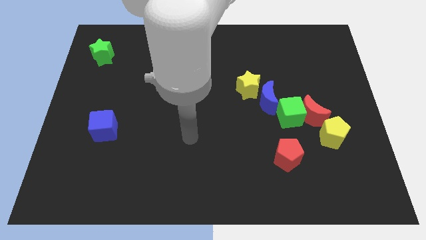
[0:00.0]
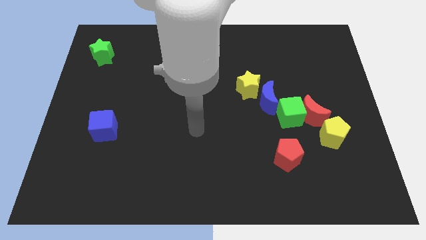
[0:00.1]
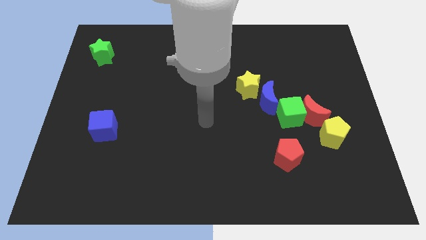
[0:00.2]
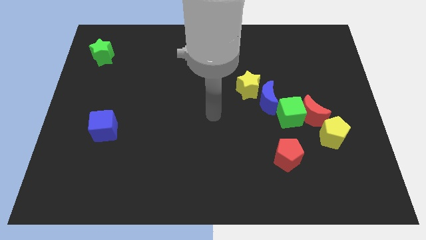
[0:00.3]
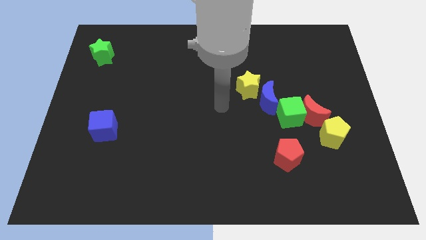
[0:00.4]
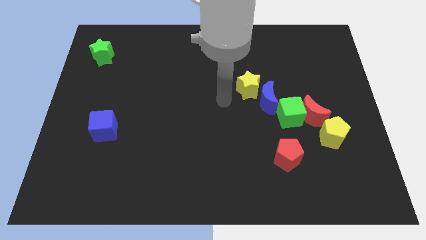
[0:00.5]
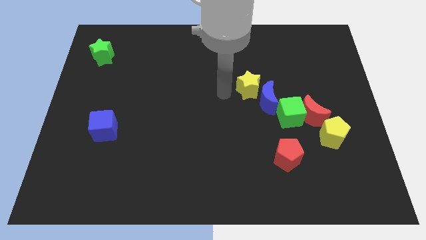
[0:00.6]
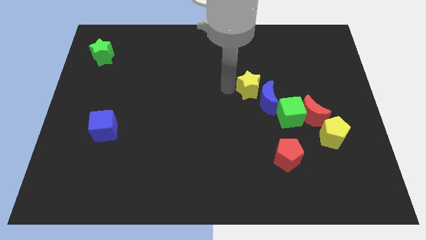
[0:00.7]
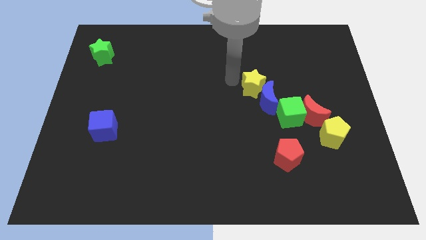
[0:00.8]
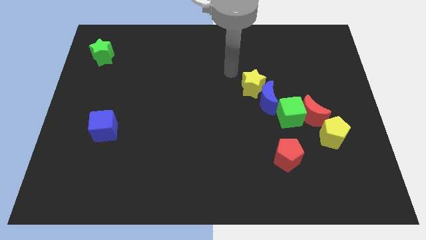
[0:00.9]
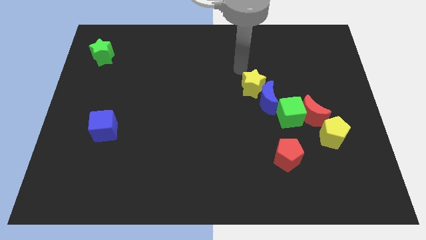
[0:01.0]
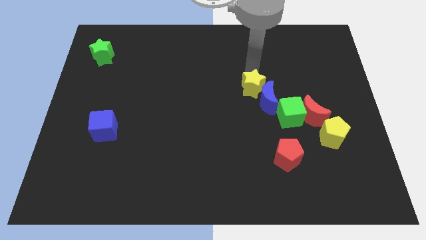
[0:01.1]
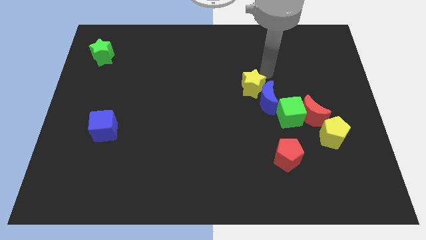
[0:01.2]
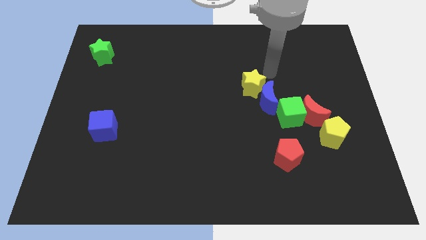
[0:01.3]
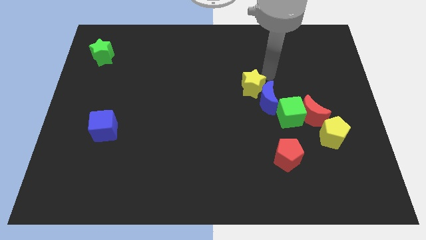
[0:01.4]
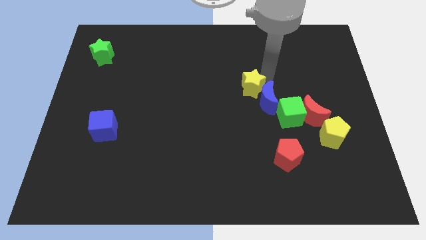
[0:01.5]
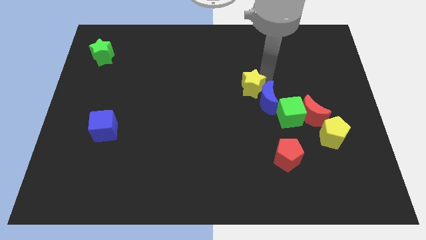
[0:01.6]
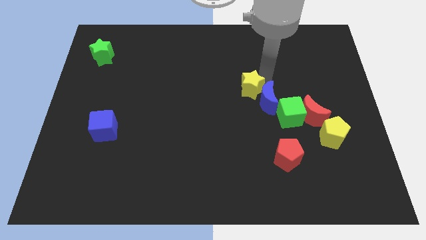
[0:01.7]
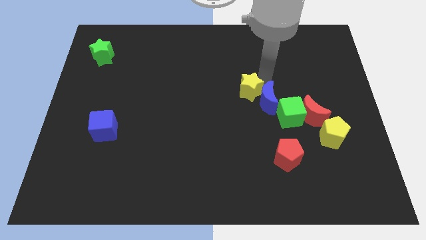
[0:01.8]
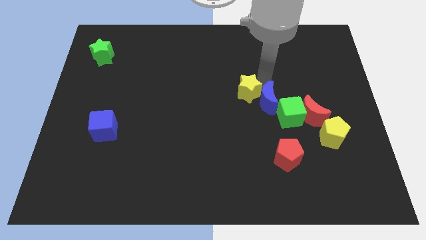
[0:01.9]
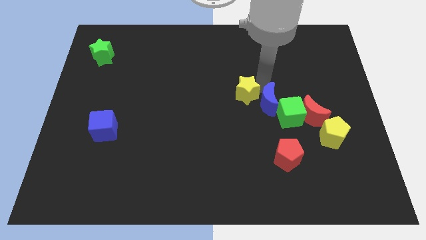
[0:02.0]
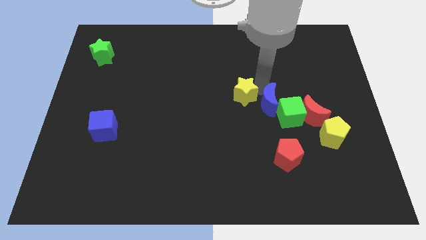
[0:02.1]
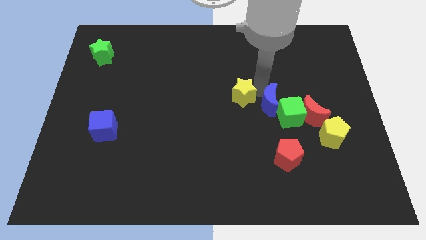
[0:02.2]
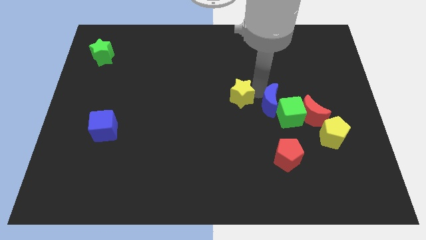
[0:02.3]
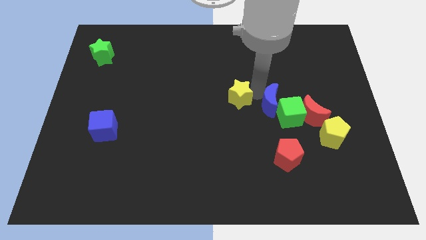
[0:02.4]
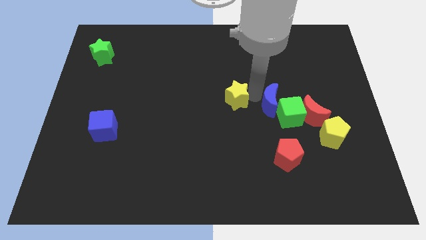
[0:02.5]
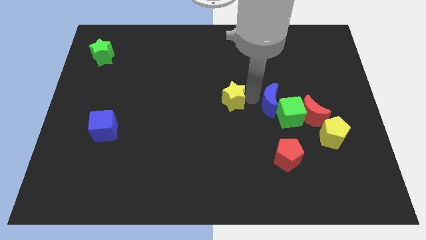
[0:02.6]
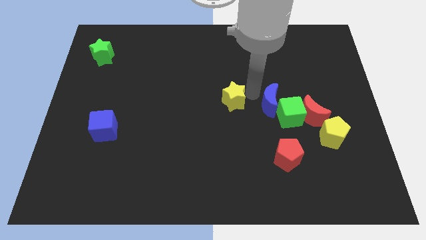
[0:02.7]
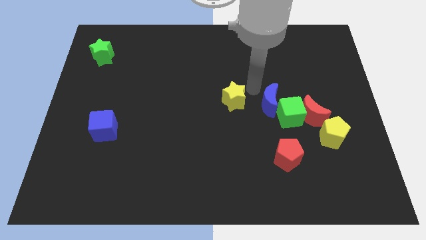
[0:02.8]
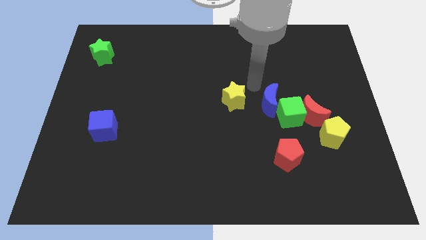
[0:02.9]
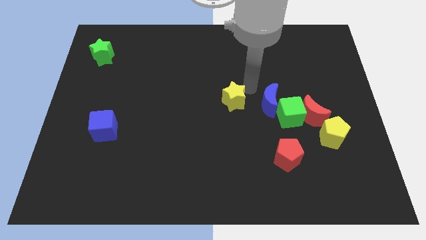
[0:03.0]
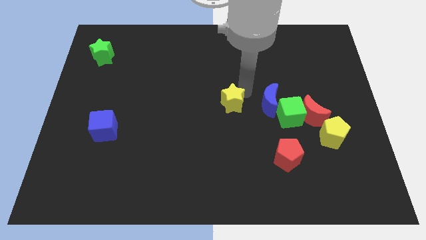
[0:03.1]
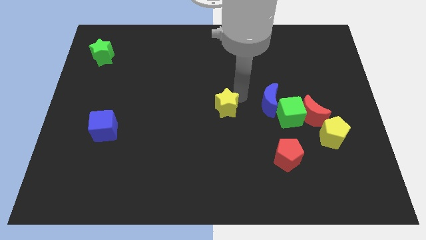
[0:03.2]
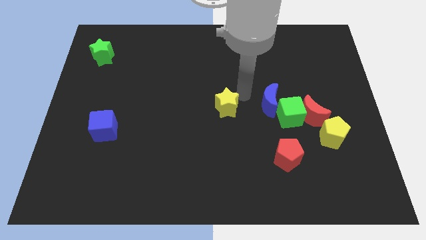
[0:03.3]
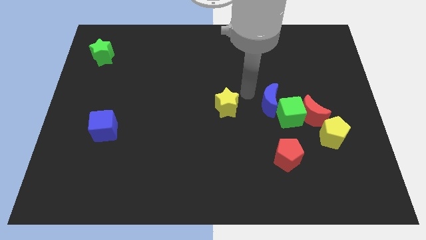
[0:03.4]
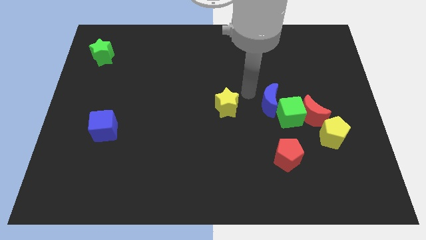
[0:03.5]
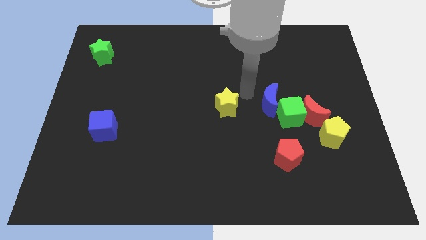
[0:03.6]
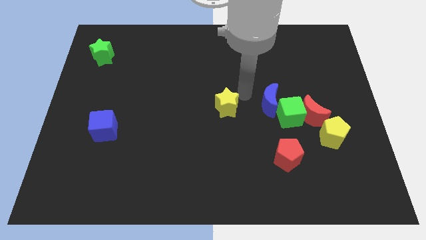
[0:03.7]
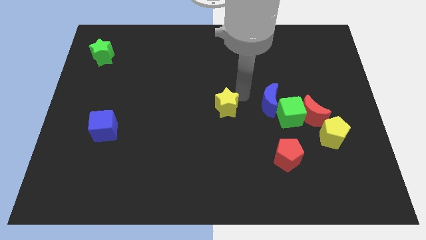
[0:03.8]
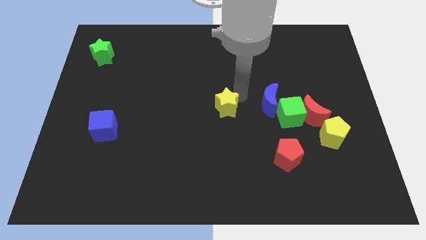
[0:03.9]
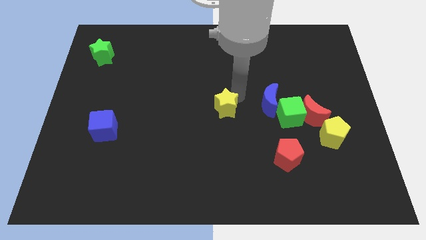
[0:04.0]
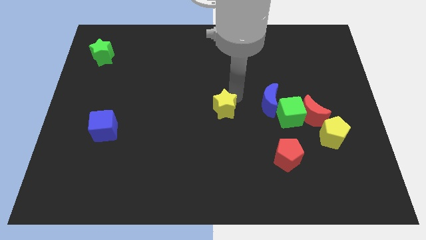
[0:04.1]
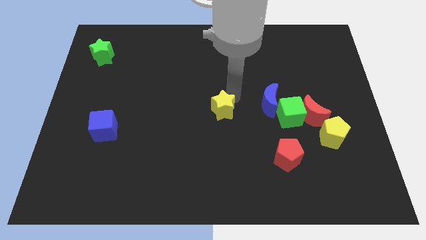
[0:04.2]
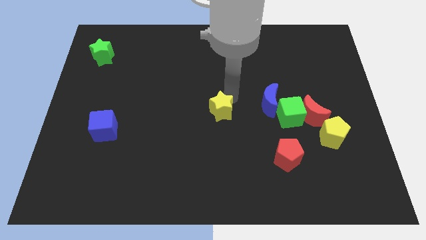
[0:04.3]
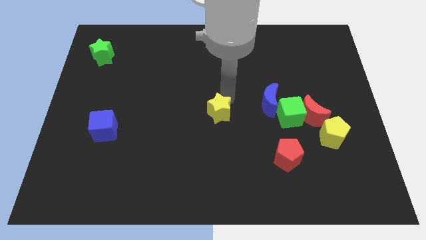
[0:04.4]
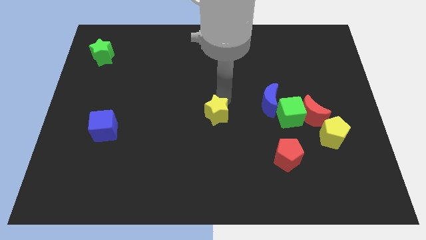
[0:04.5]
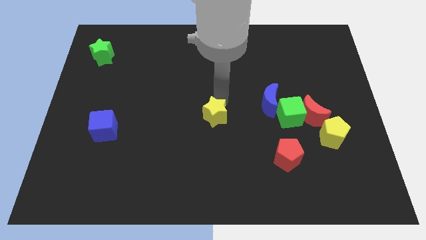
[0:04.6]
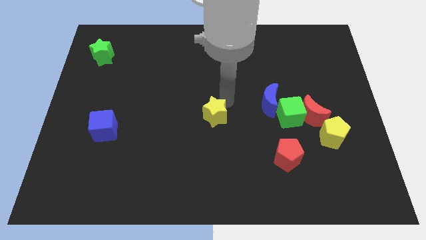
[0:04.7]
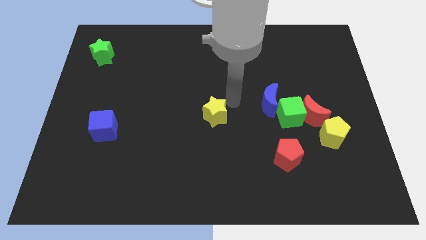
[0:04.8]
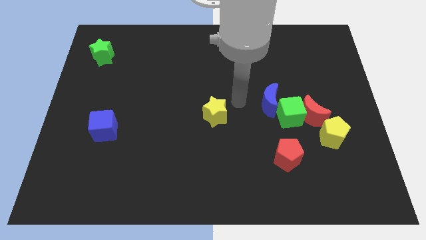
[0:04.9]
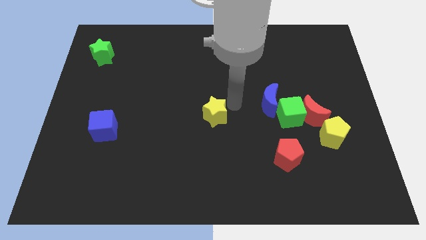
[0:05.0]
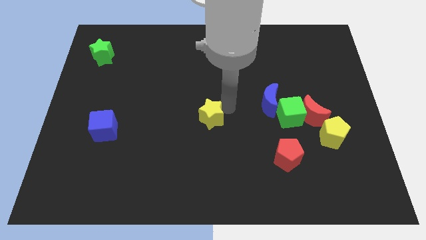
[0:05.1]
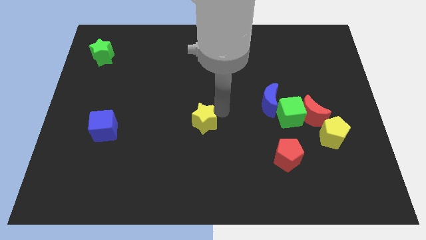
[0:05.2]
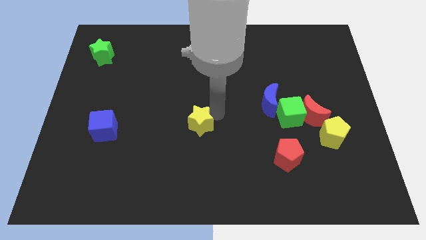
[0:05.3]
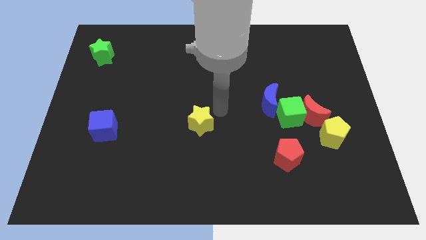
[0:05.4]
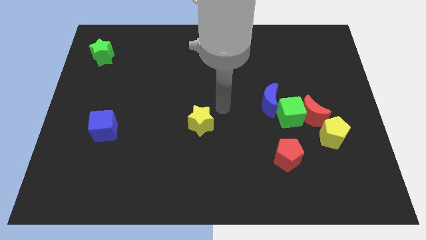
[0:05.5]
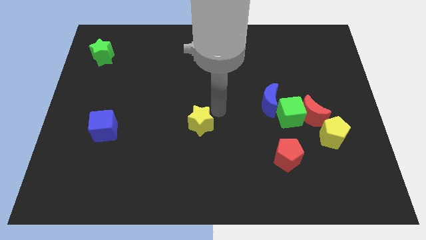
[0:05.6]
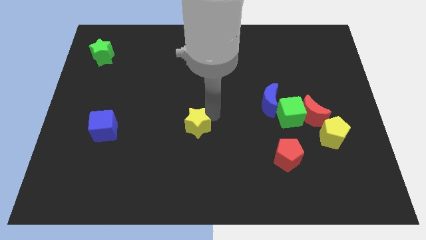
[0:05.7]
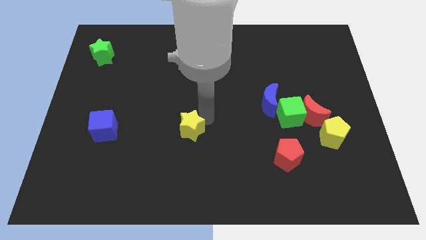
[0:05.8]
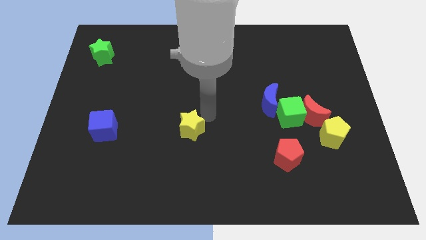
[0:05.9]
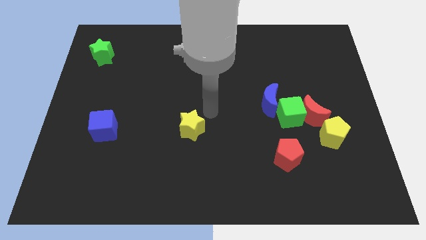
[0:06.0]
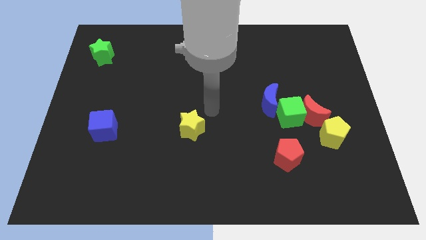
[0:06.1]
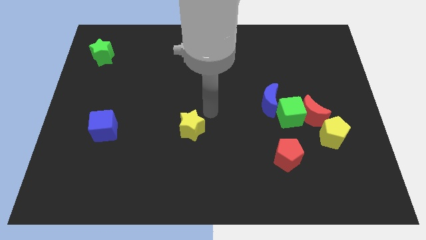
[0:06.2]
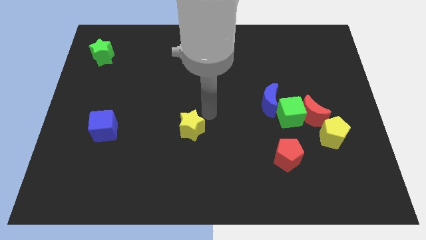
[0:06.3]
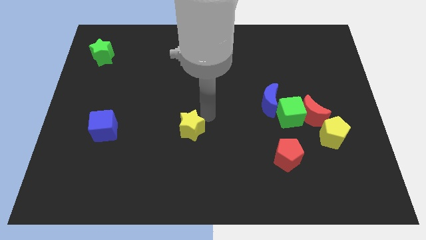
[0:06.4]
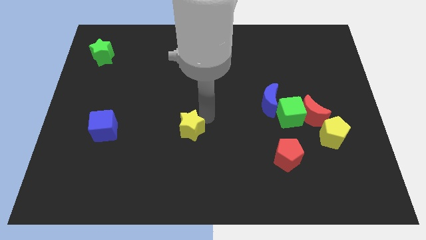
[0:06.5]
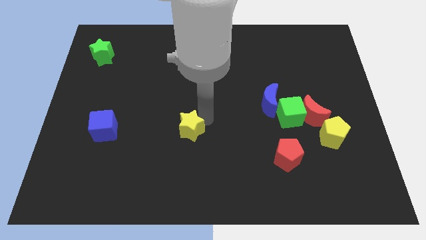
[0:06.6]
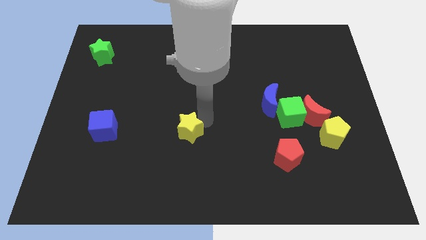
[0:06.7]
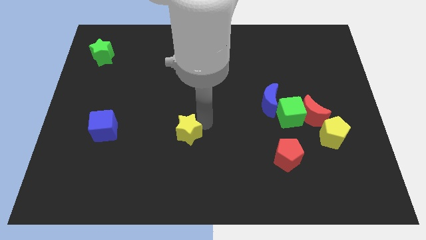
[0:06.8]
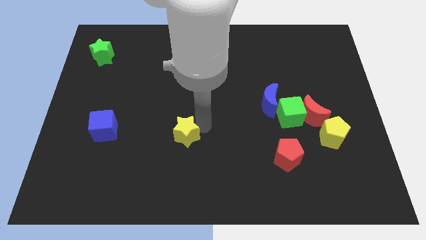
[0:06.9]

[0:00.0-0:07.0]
move the yellow star down and then to the left

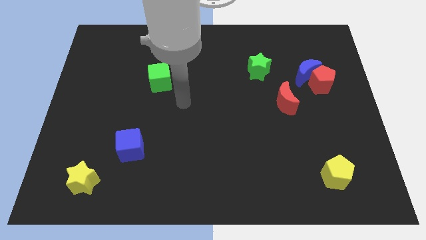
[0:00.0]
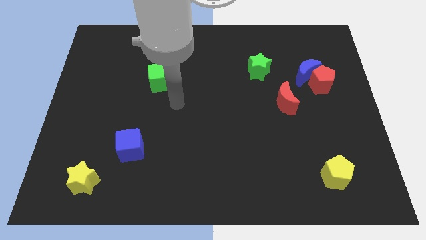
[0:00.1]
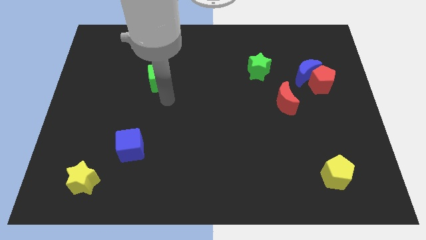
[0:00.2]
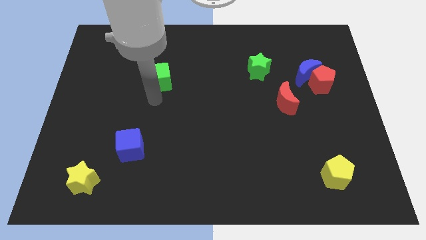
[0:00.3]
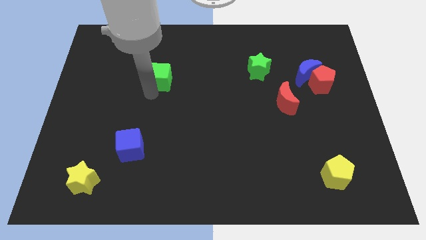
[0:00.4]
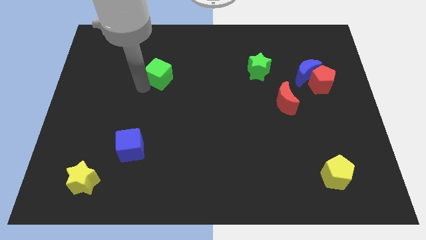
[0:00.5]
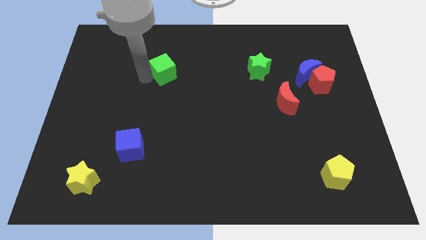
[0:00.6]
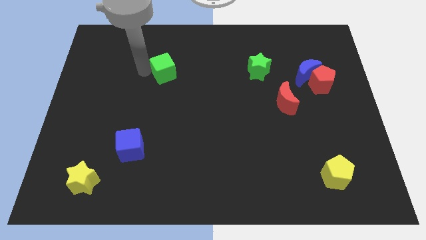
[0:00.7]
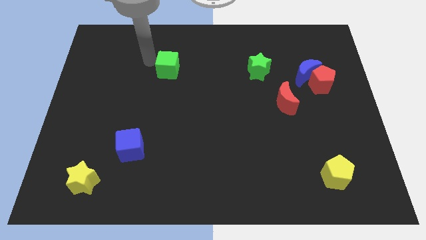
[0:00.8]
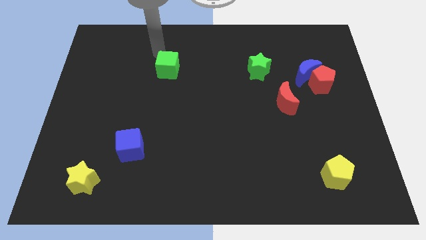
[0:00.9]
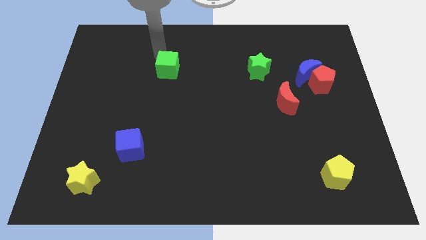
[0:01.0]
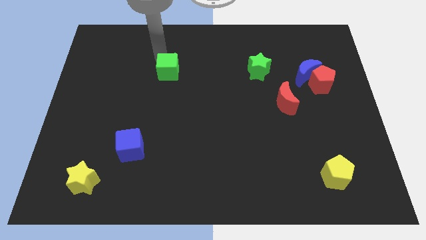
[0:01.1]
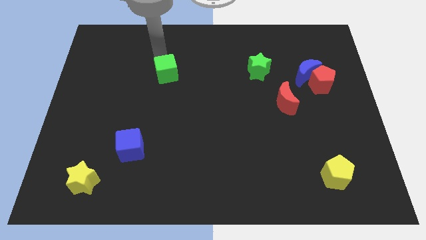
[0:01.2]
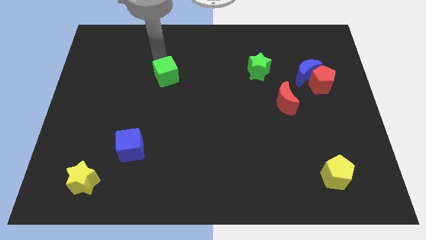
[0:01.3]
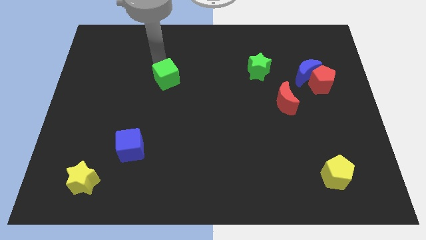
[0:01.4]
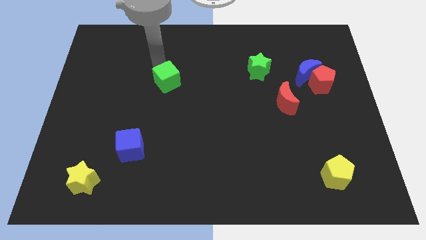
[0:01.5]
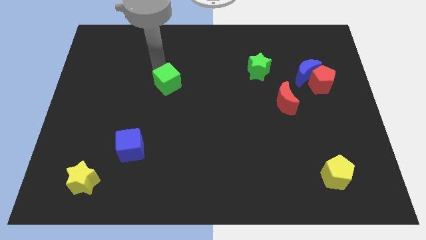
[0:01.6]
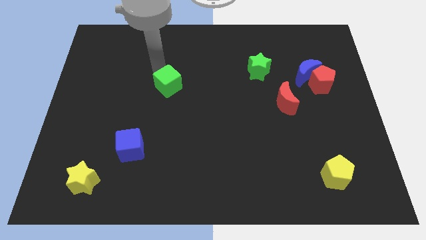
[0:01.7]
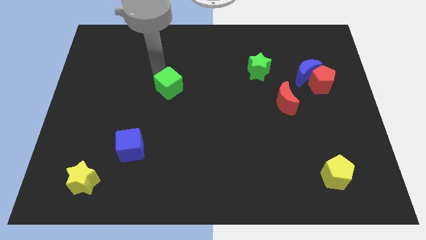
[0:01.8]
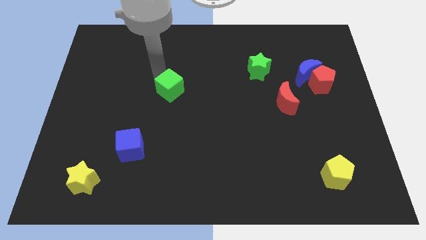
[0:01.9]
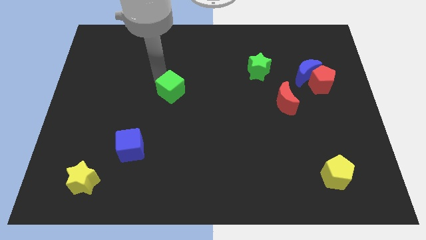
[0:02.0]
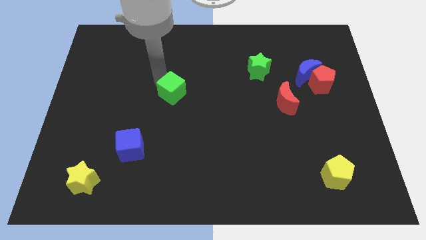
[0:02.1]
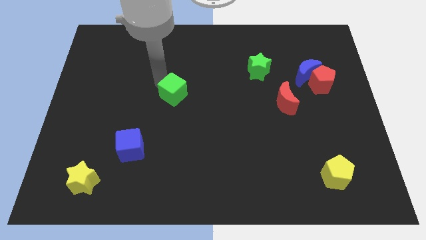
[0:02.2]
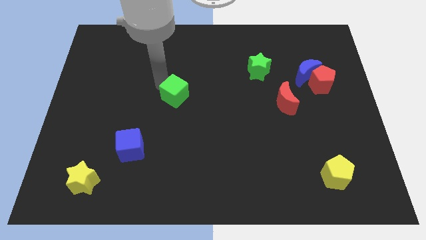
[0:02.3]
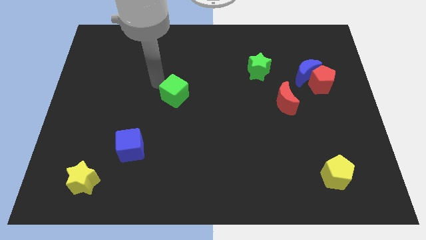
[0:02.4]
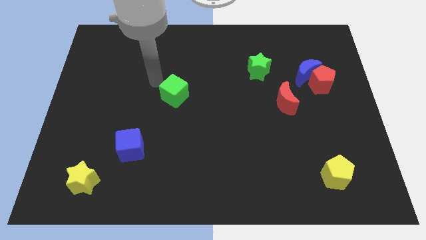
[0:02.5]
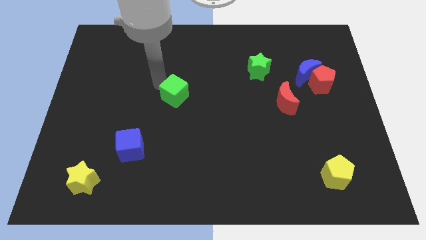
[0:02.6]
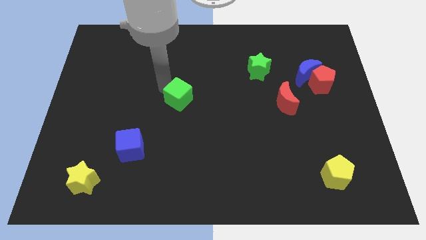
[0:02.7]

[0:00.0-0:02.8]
push the green cube slightly down and to the right diagonally
